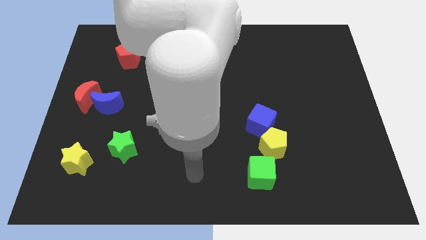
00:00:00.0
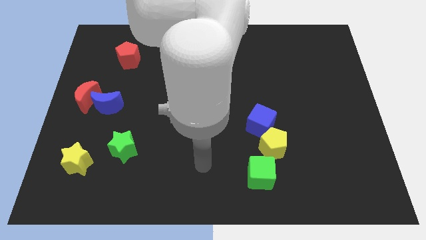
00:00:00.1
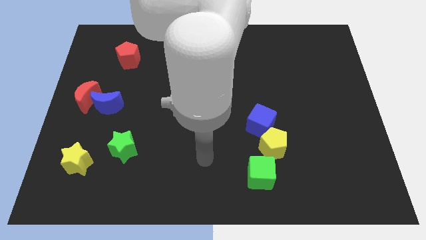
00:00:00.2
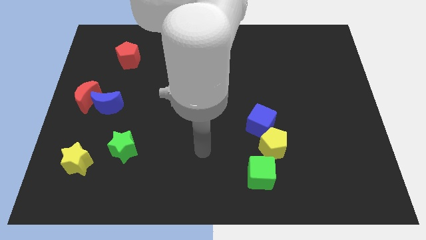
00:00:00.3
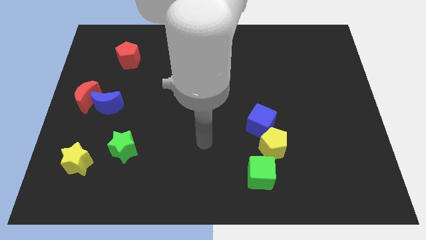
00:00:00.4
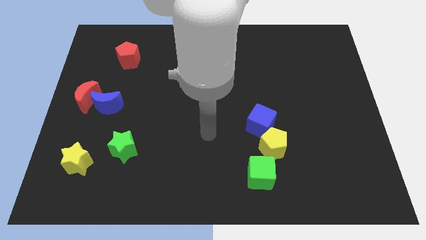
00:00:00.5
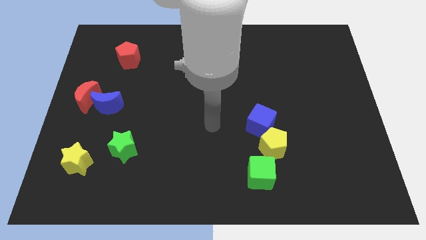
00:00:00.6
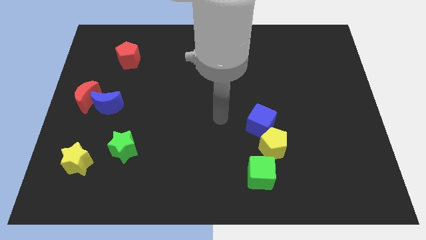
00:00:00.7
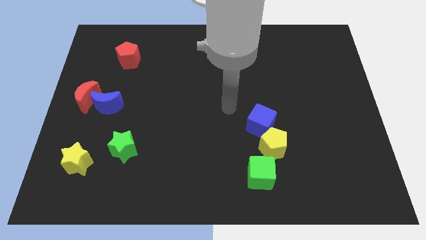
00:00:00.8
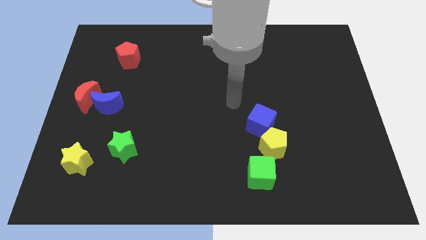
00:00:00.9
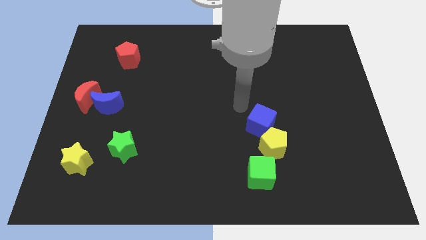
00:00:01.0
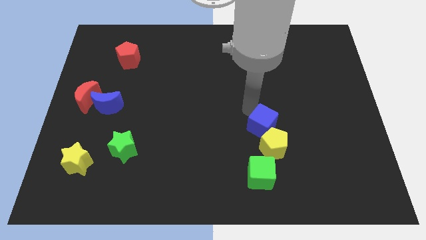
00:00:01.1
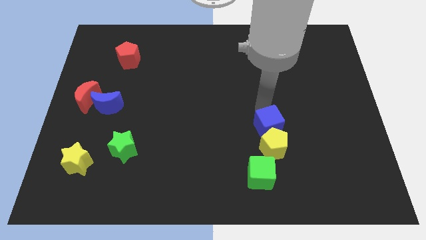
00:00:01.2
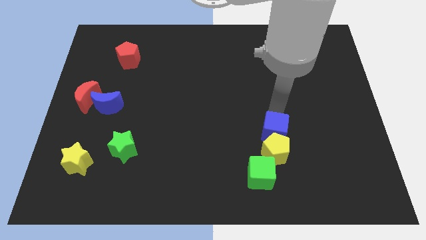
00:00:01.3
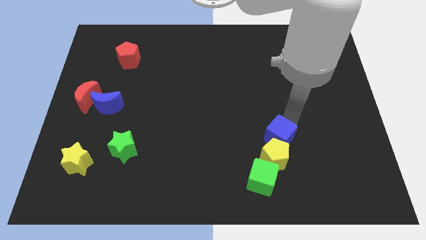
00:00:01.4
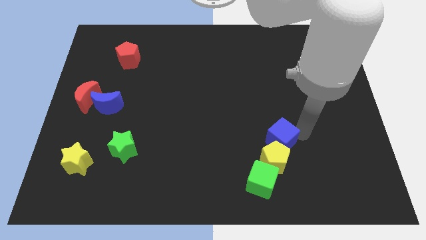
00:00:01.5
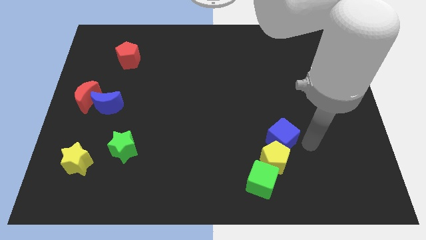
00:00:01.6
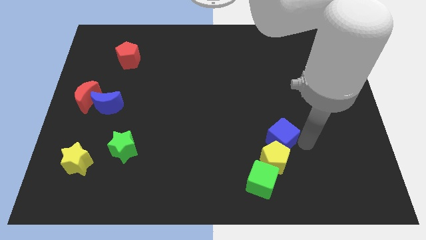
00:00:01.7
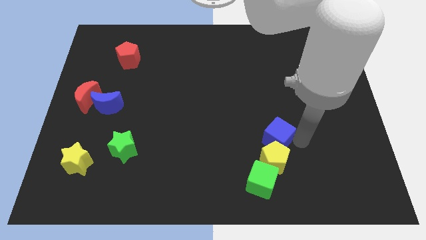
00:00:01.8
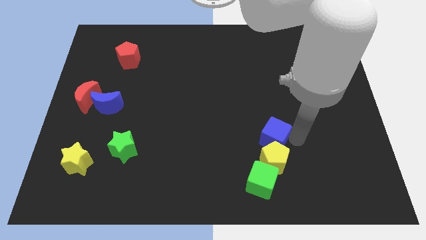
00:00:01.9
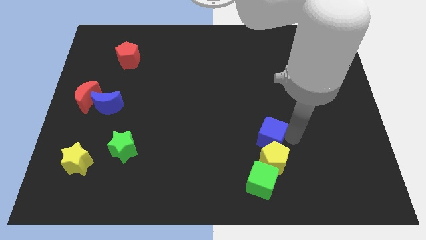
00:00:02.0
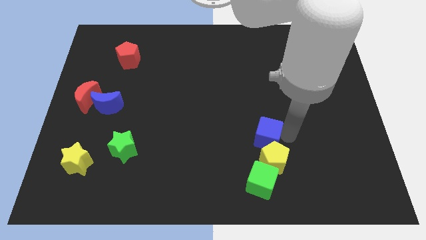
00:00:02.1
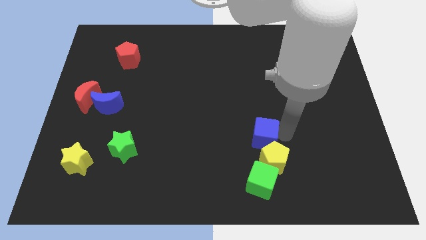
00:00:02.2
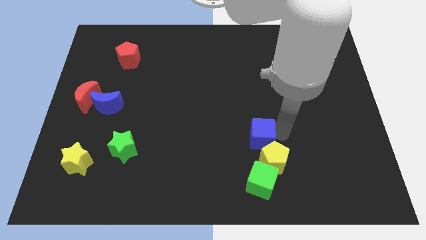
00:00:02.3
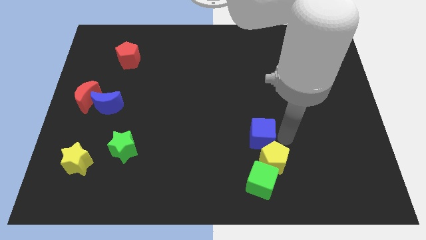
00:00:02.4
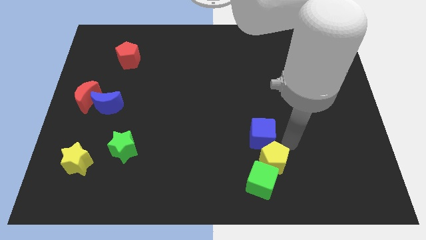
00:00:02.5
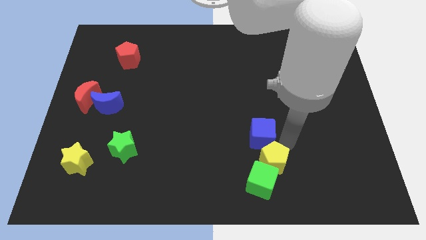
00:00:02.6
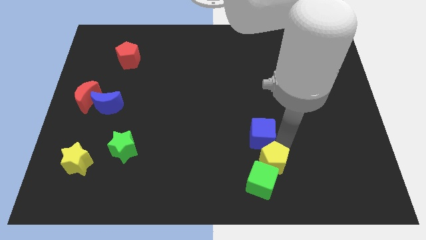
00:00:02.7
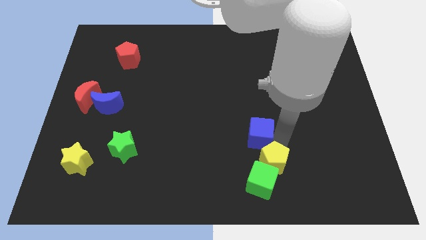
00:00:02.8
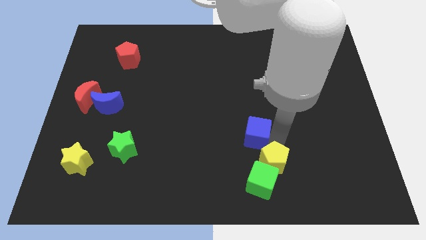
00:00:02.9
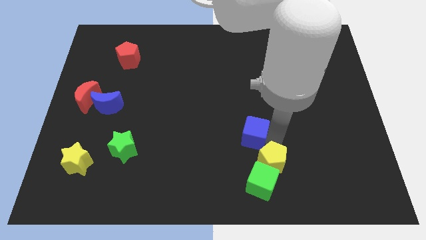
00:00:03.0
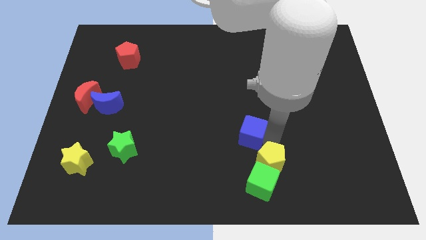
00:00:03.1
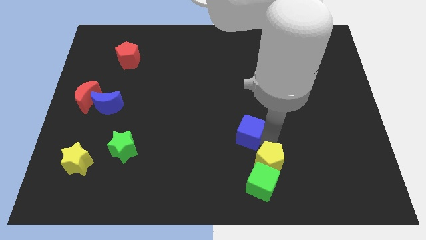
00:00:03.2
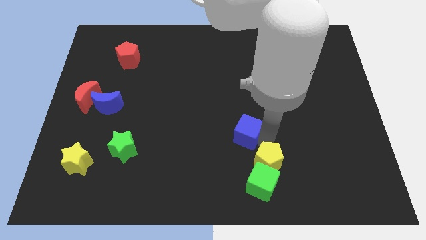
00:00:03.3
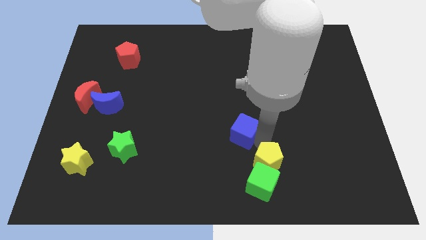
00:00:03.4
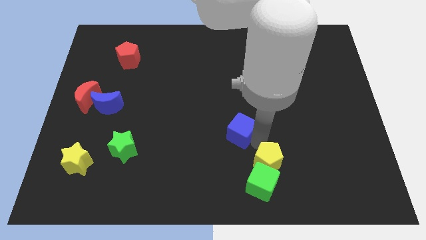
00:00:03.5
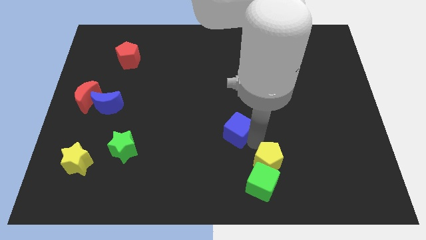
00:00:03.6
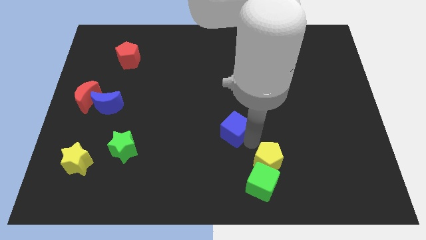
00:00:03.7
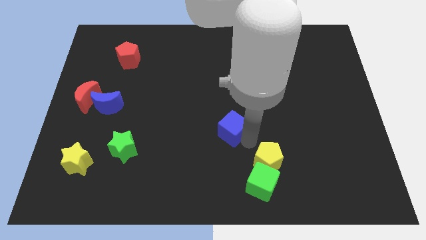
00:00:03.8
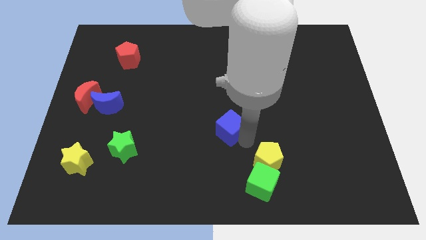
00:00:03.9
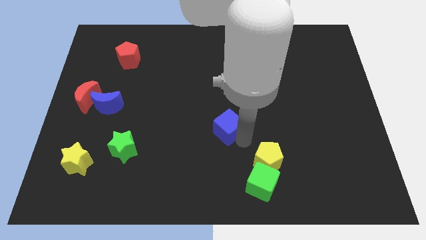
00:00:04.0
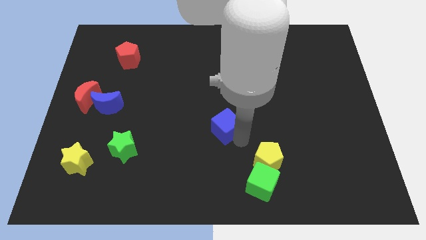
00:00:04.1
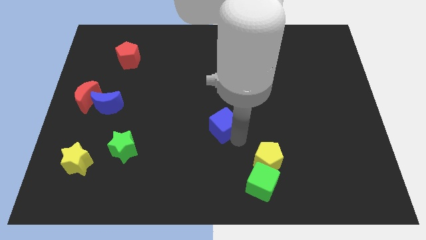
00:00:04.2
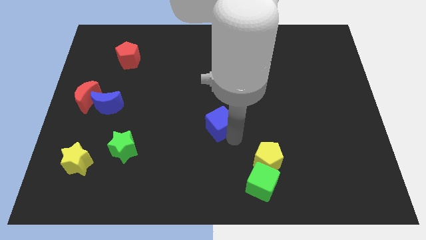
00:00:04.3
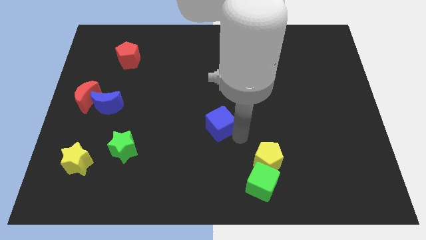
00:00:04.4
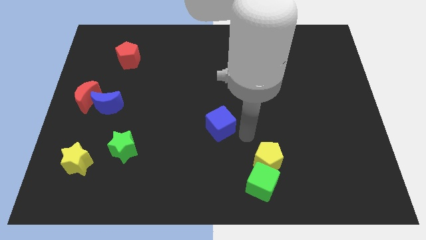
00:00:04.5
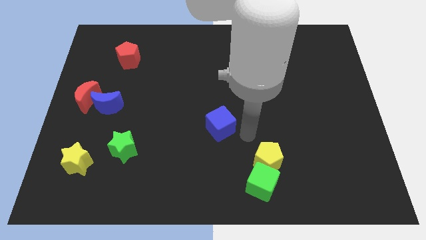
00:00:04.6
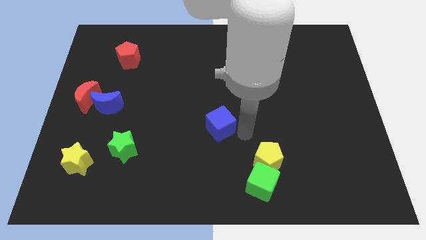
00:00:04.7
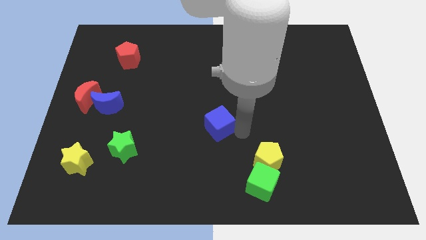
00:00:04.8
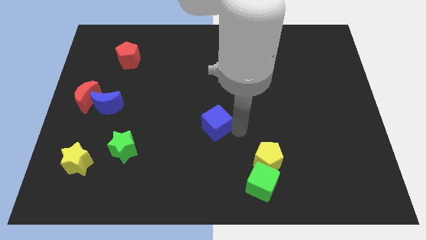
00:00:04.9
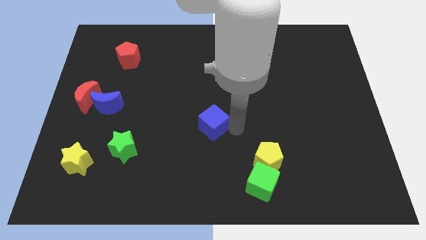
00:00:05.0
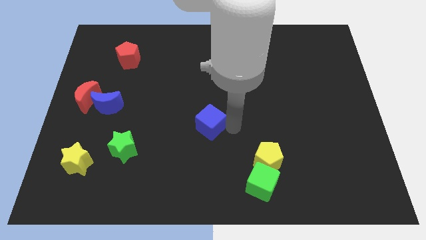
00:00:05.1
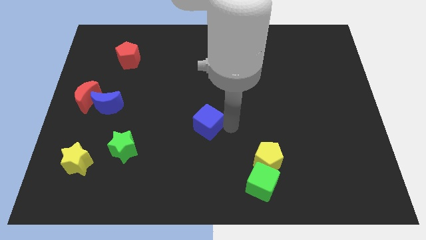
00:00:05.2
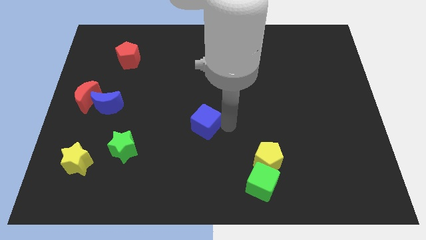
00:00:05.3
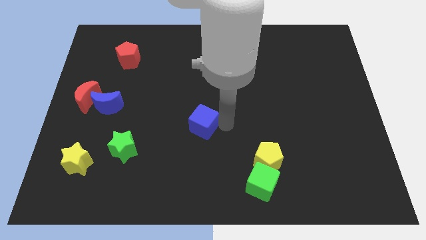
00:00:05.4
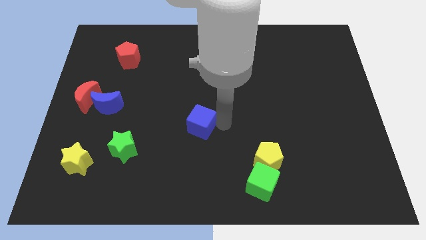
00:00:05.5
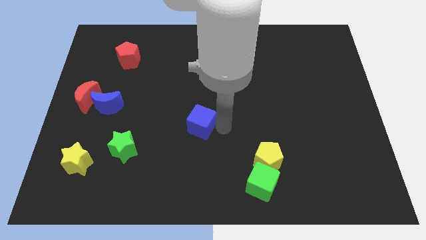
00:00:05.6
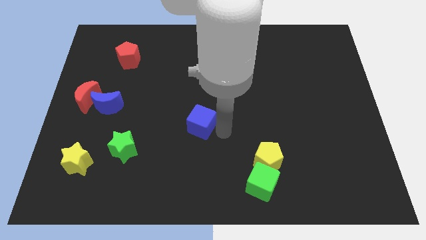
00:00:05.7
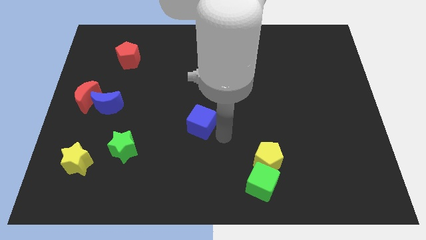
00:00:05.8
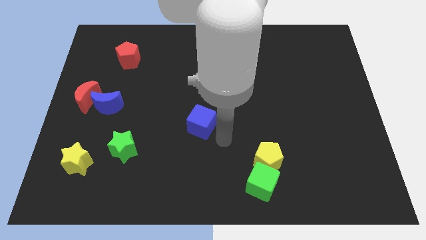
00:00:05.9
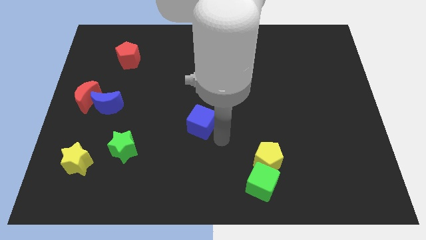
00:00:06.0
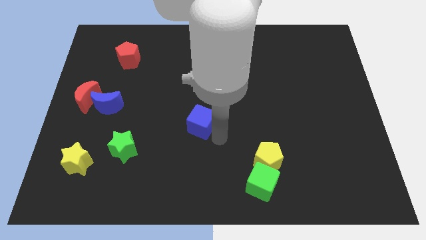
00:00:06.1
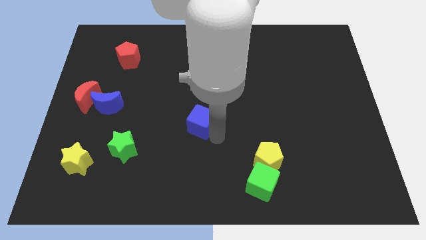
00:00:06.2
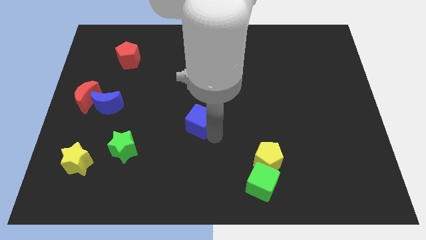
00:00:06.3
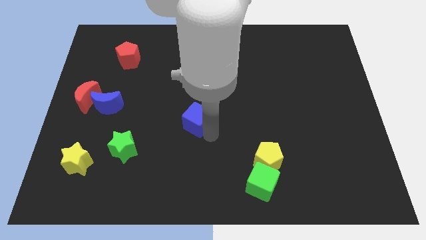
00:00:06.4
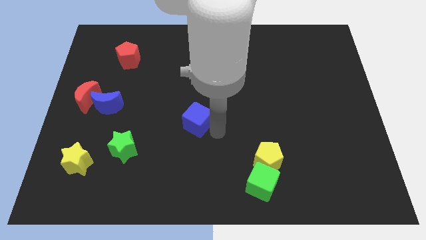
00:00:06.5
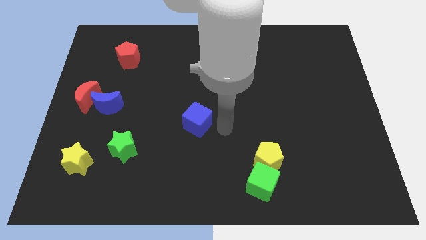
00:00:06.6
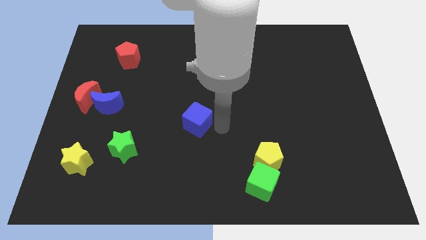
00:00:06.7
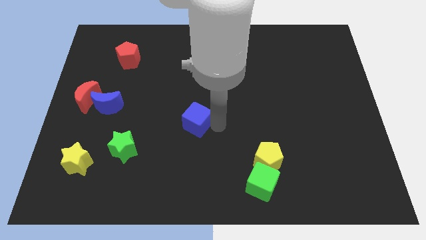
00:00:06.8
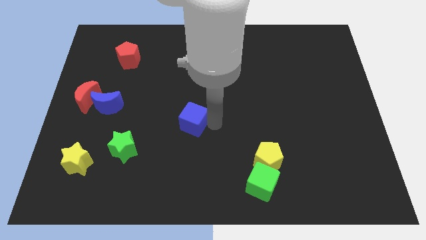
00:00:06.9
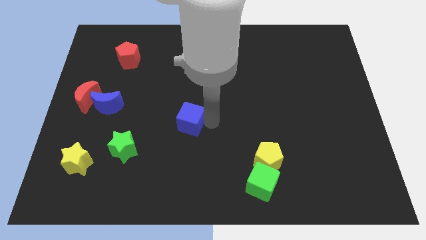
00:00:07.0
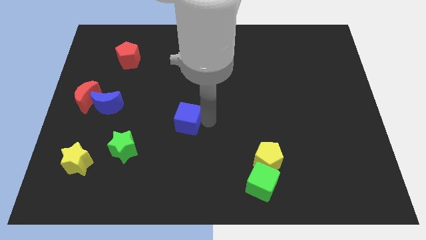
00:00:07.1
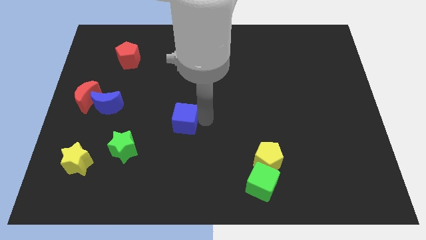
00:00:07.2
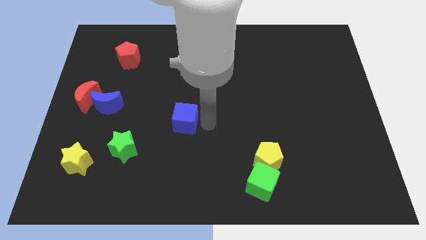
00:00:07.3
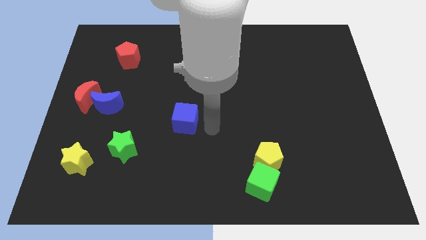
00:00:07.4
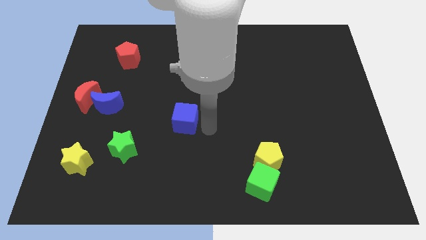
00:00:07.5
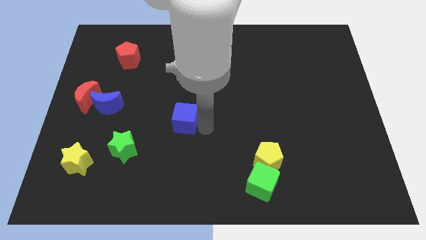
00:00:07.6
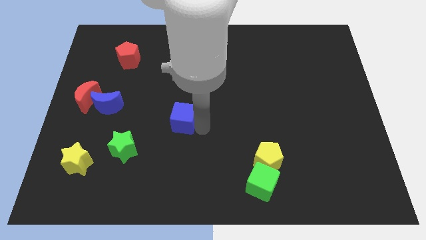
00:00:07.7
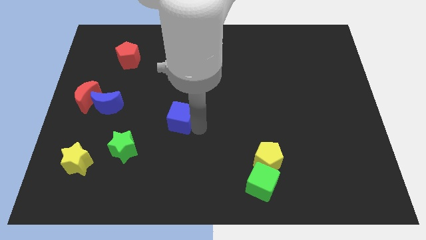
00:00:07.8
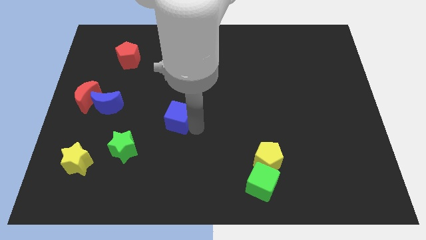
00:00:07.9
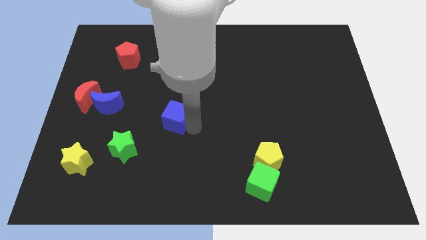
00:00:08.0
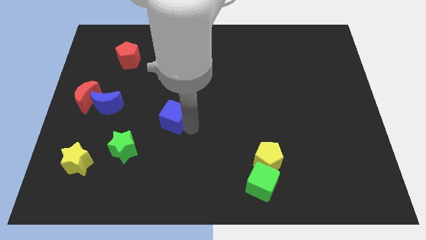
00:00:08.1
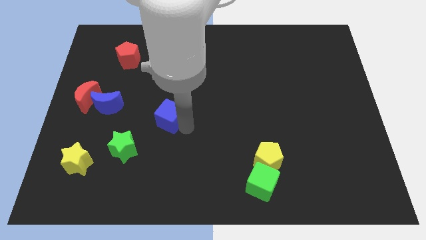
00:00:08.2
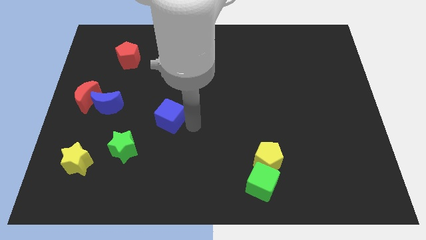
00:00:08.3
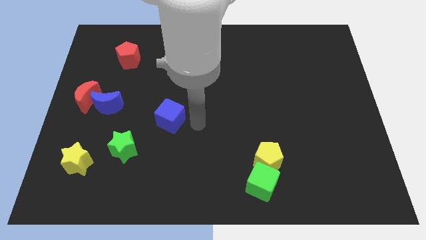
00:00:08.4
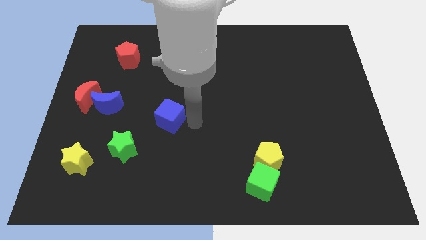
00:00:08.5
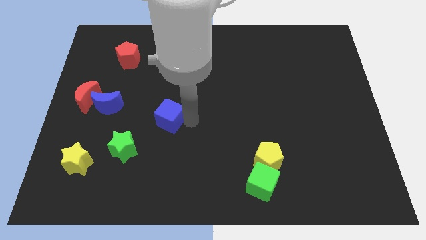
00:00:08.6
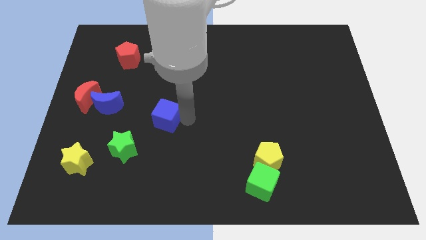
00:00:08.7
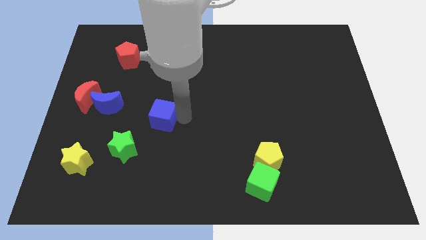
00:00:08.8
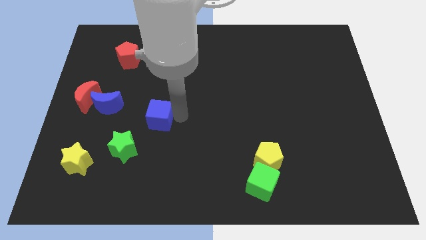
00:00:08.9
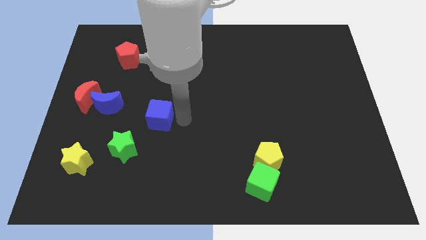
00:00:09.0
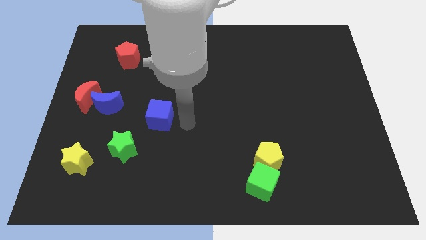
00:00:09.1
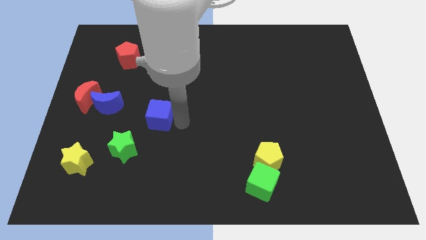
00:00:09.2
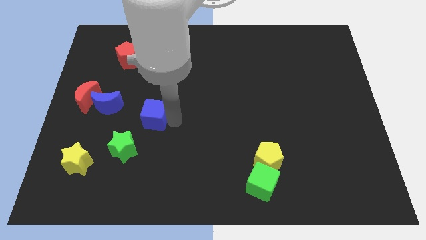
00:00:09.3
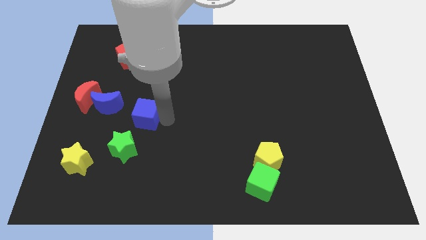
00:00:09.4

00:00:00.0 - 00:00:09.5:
slide the blue cube above the green star
